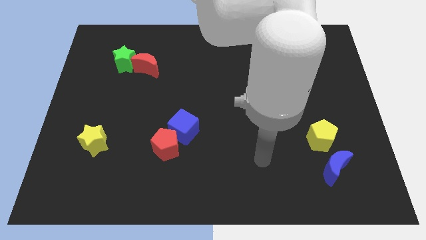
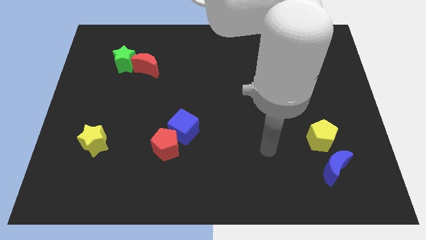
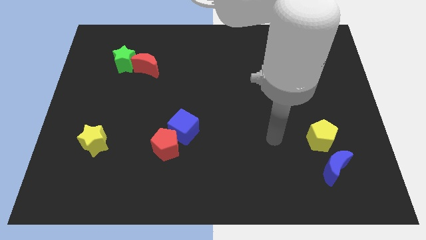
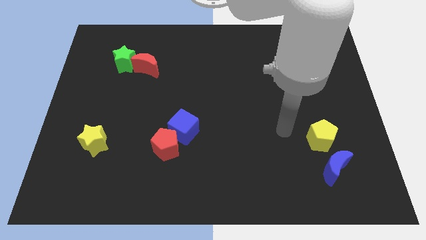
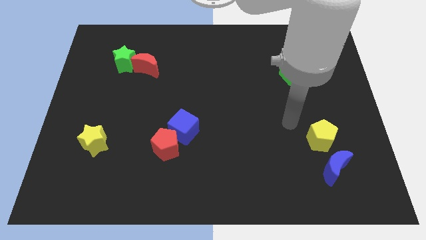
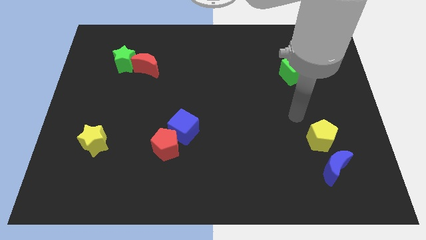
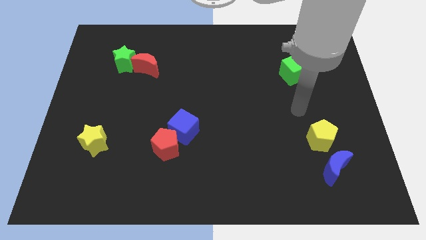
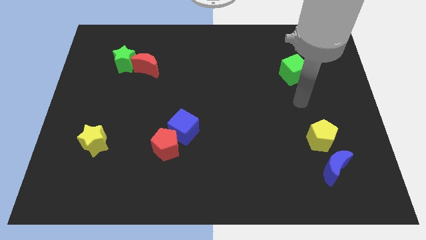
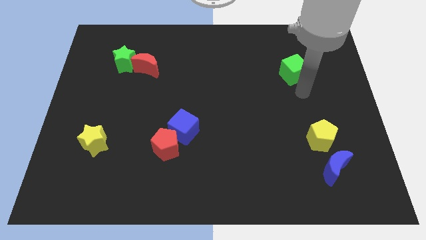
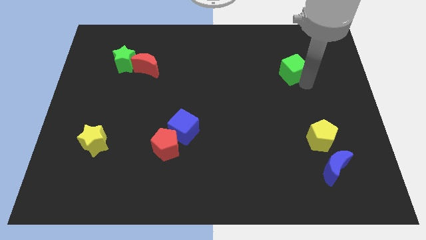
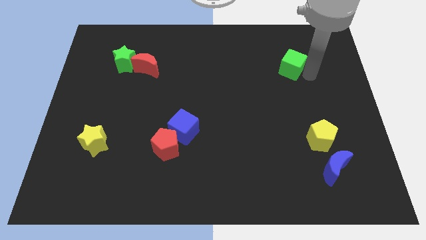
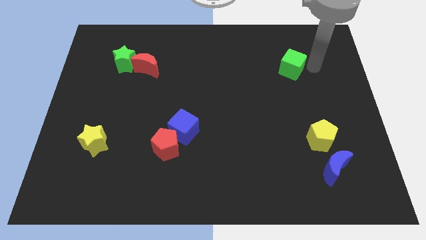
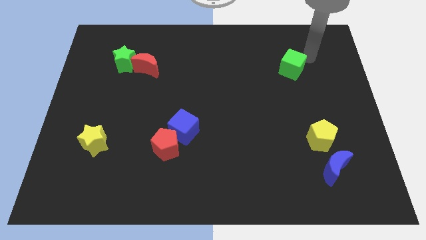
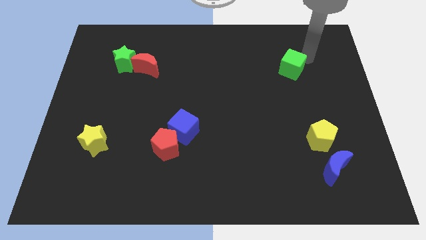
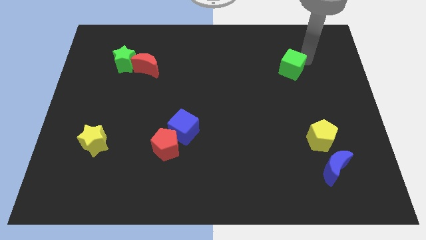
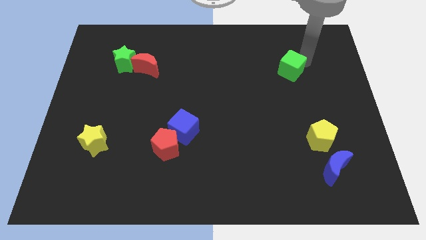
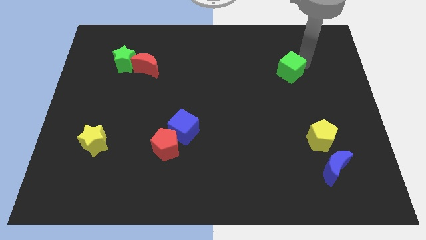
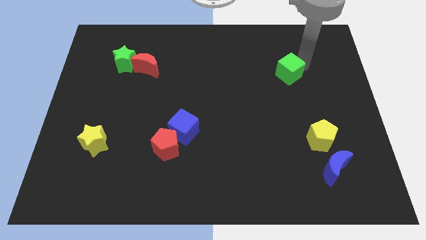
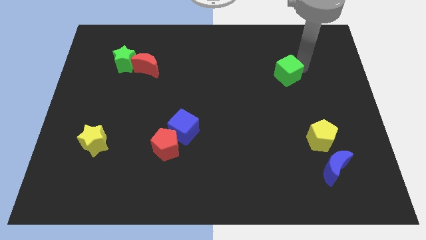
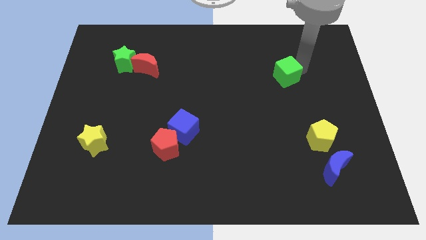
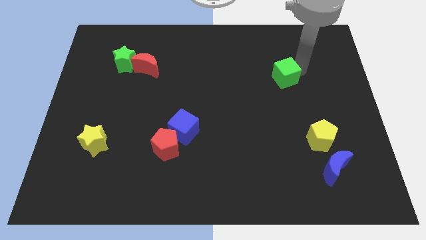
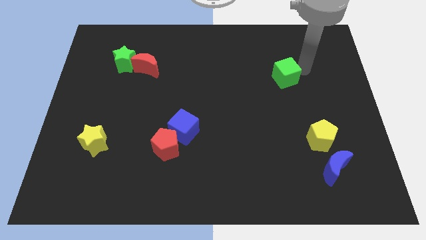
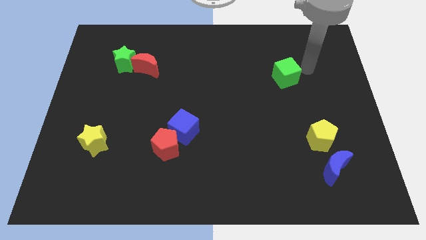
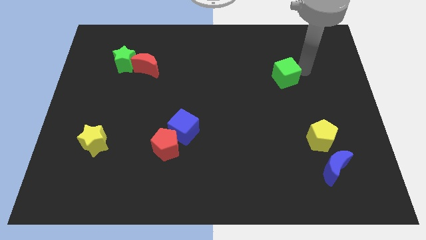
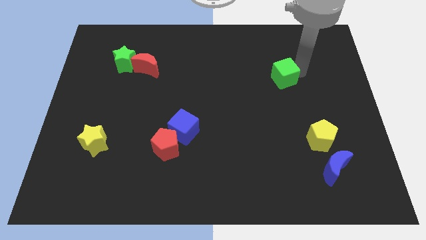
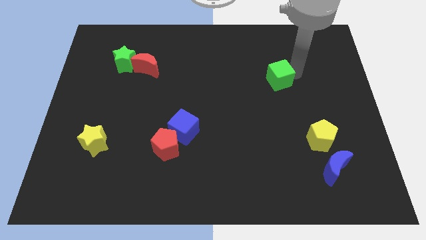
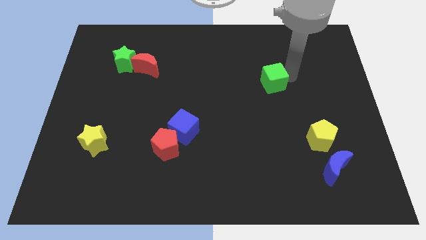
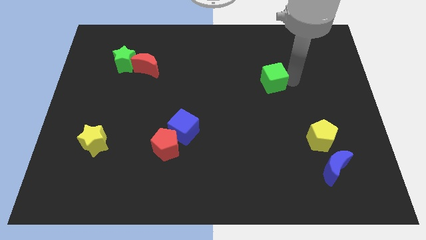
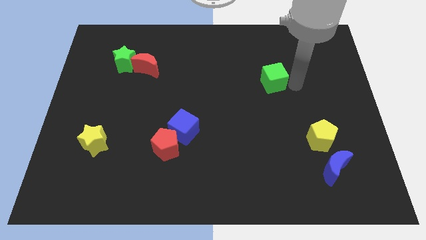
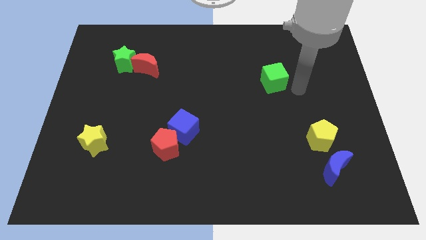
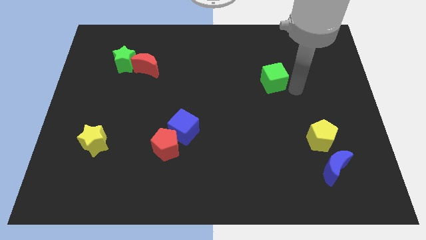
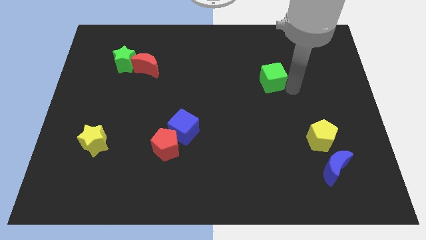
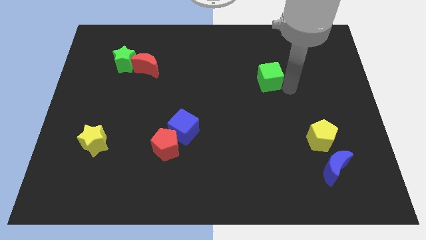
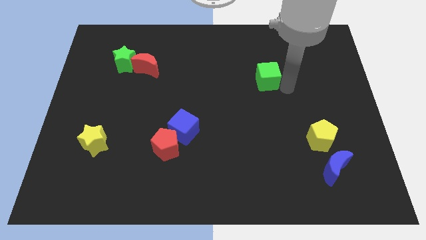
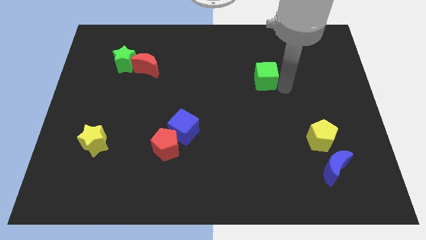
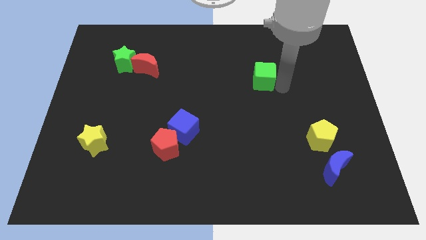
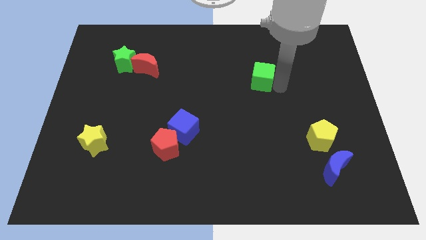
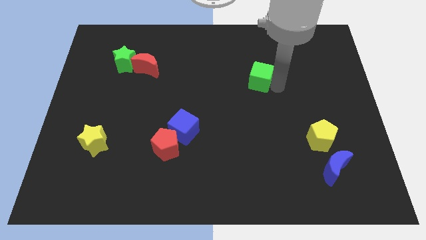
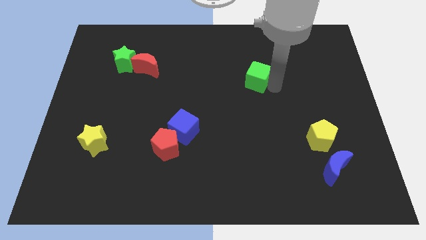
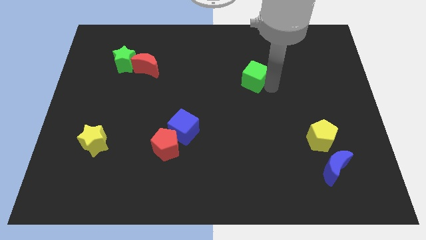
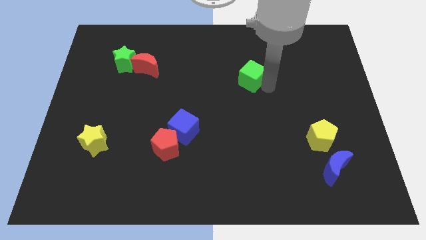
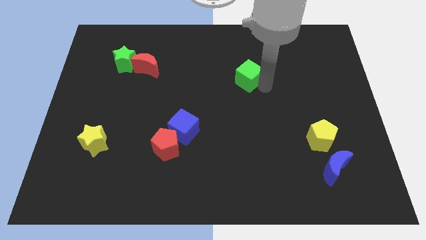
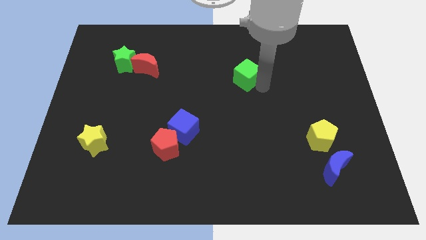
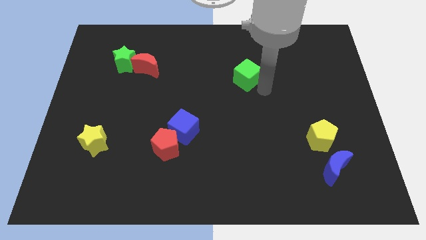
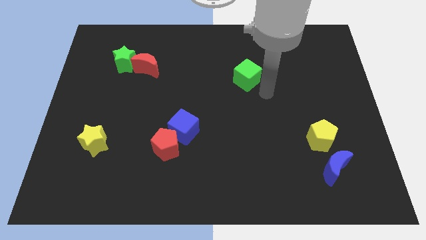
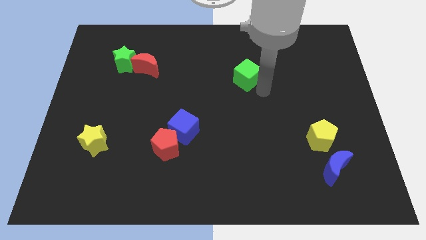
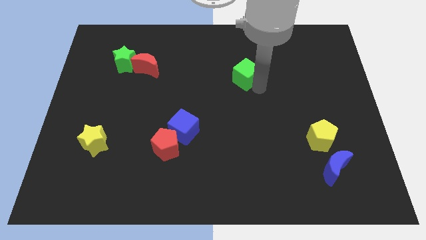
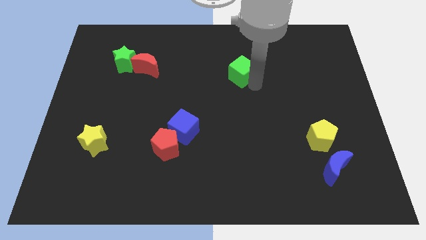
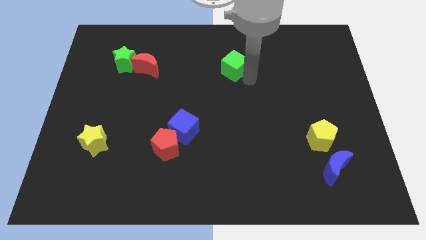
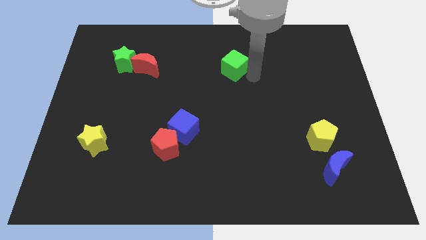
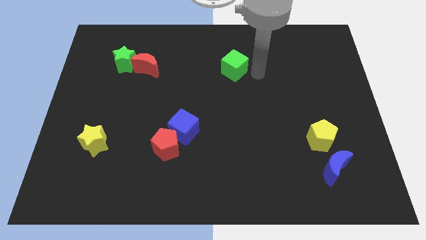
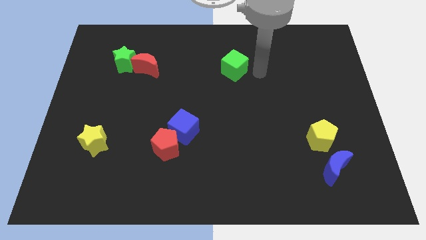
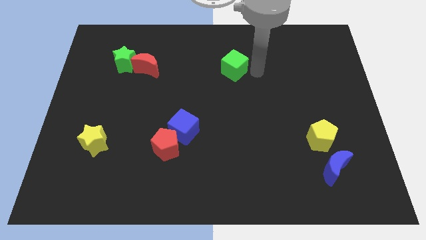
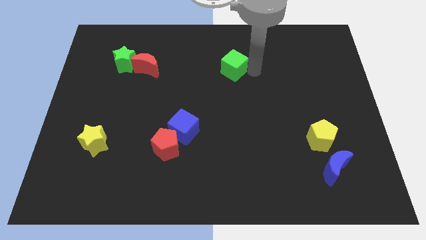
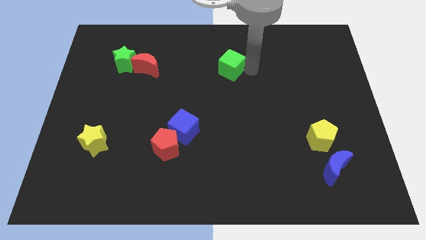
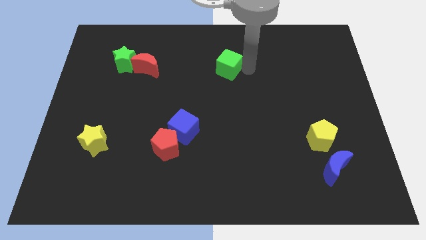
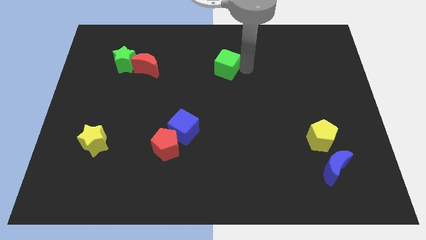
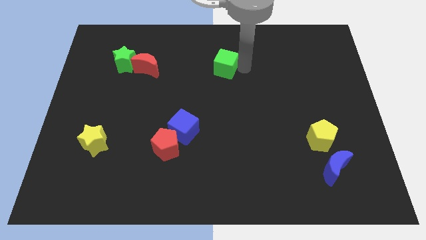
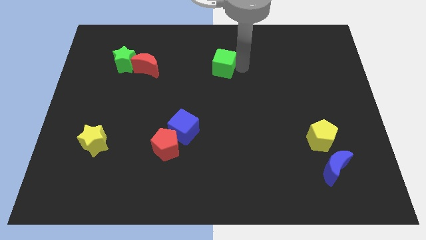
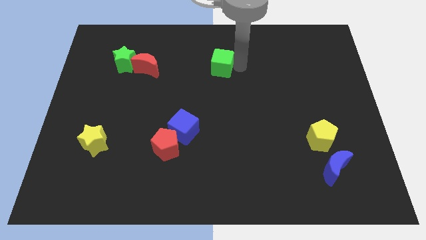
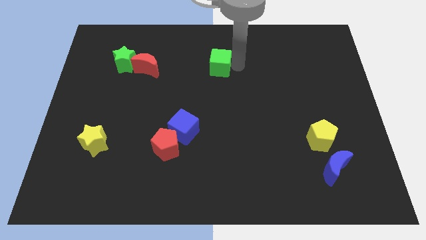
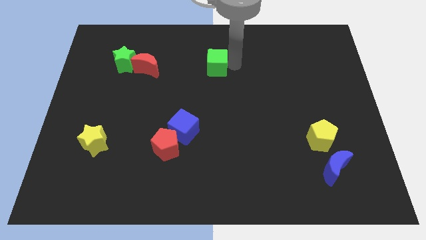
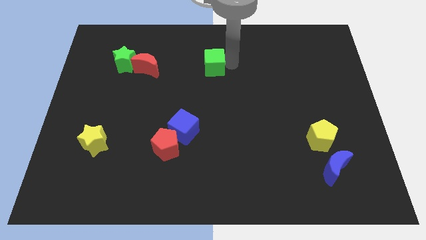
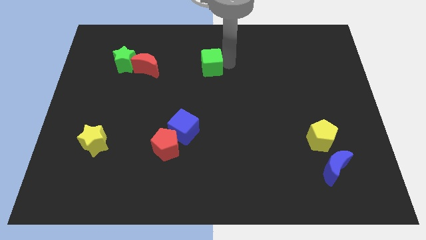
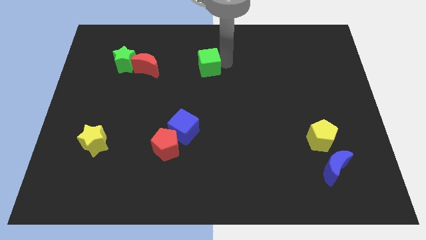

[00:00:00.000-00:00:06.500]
put the green cube right of the red moon

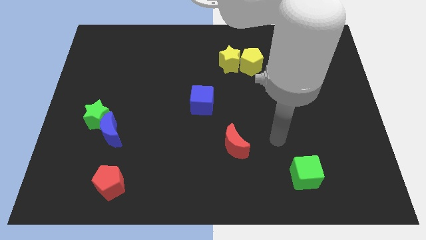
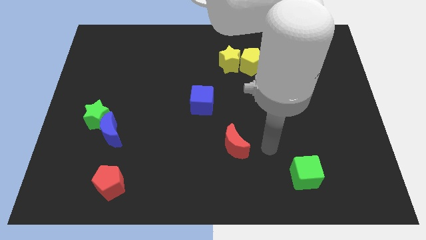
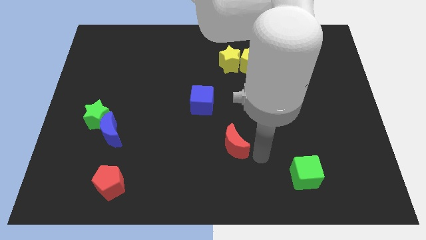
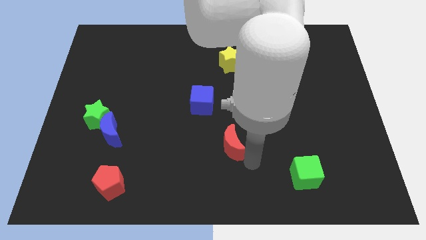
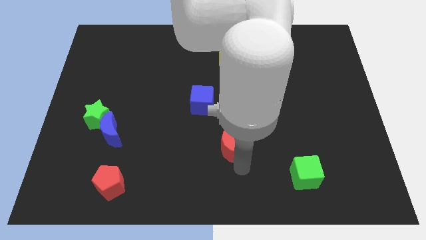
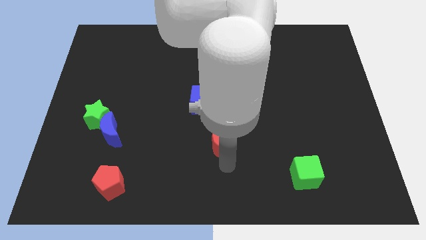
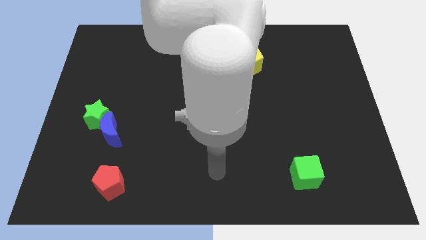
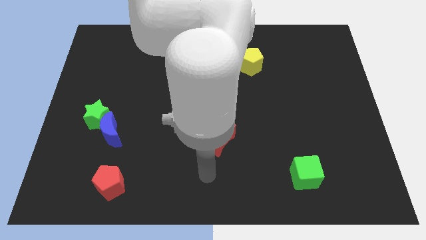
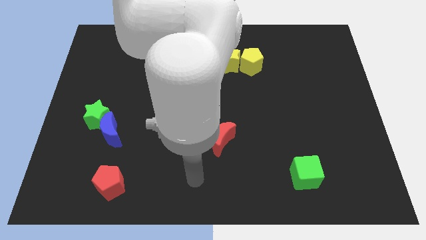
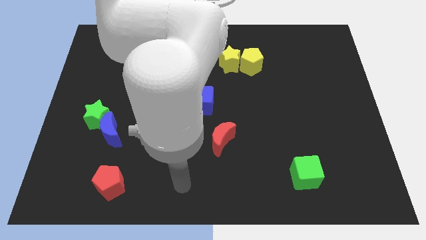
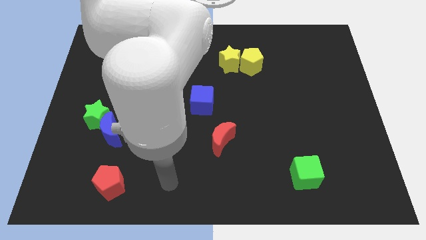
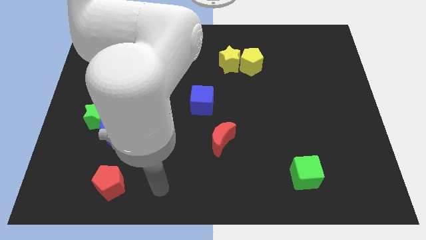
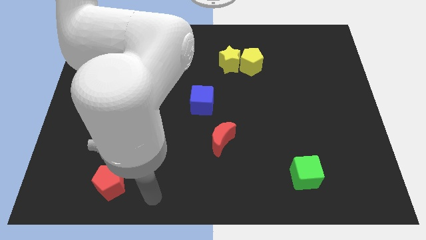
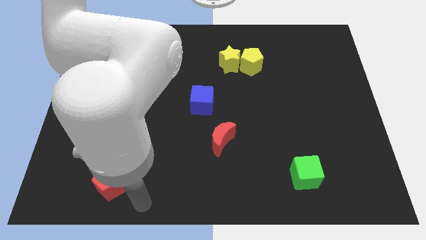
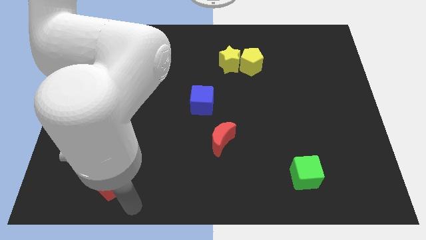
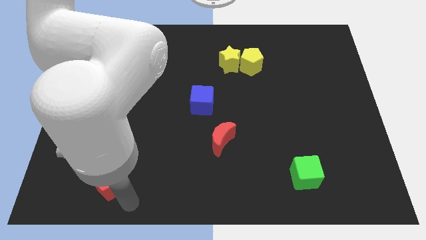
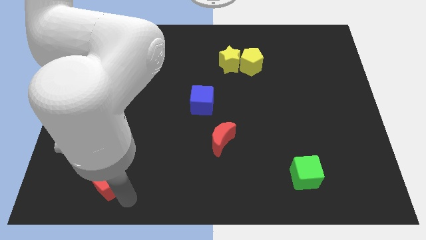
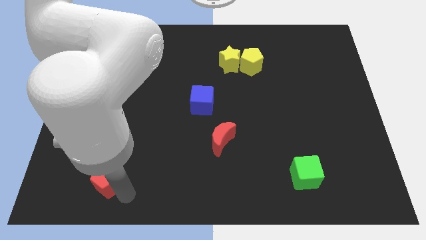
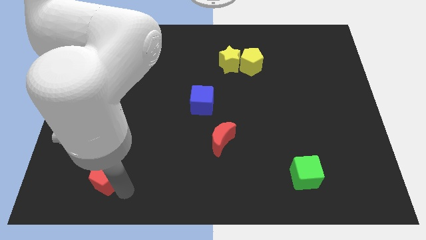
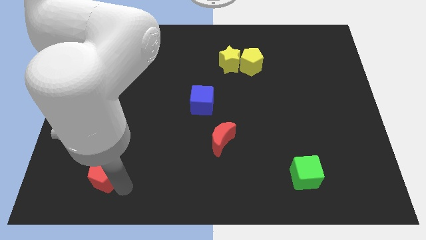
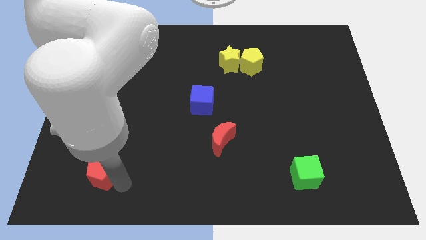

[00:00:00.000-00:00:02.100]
put the red pentagon below the green star
